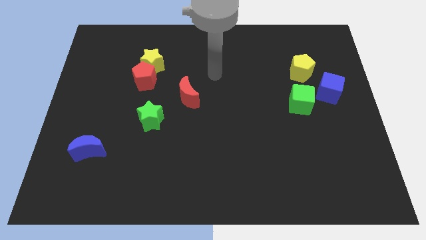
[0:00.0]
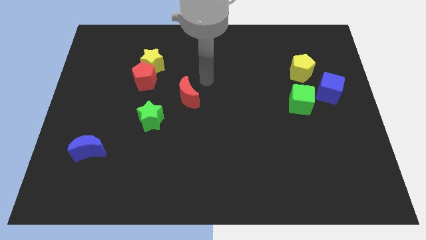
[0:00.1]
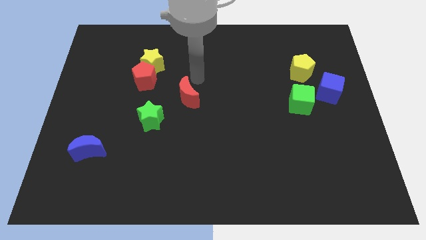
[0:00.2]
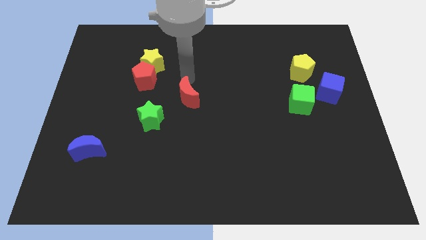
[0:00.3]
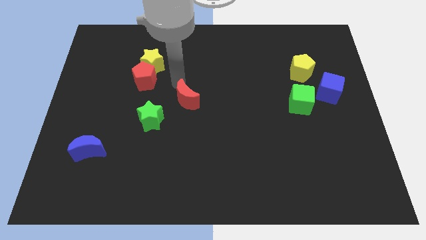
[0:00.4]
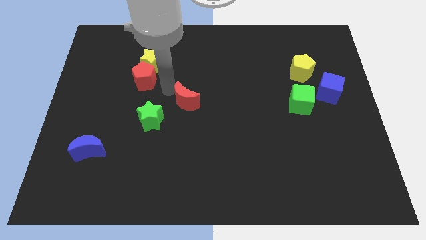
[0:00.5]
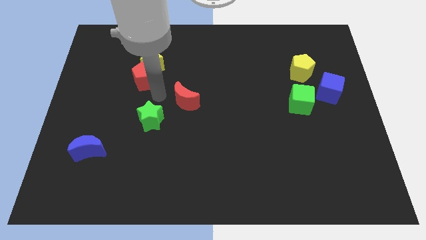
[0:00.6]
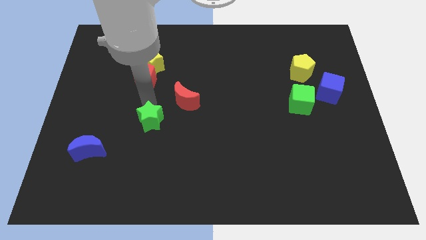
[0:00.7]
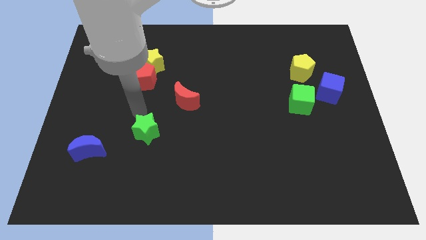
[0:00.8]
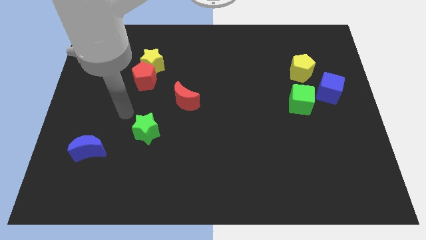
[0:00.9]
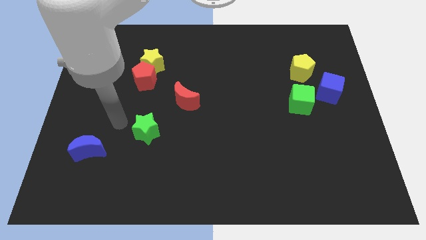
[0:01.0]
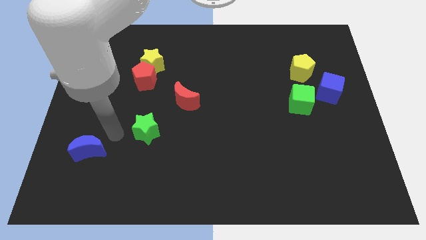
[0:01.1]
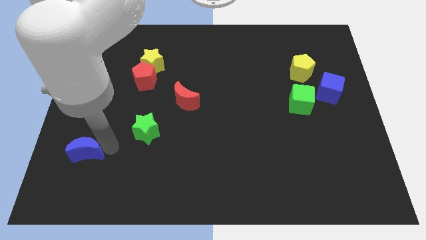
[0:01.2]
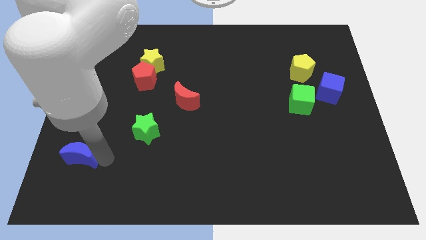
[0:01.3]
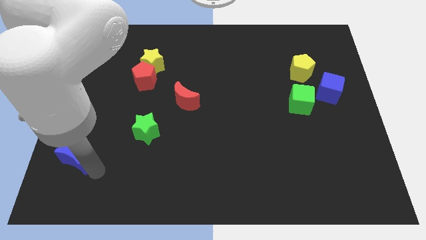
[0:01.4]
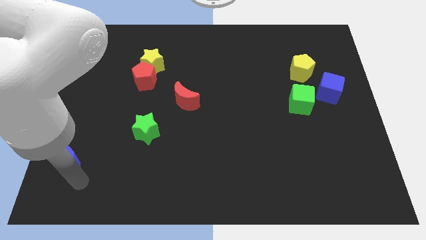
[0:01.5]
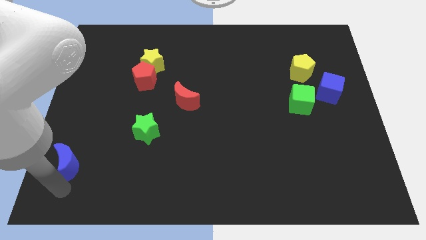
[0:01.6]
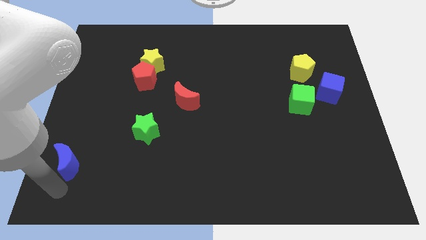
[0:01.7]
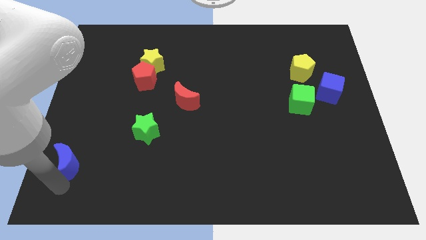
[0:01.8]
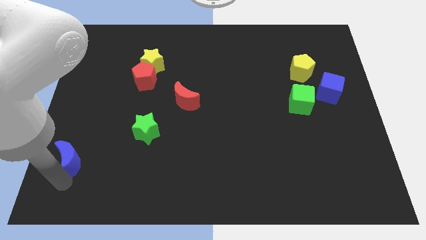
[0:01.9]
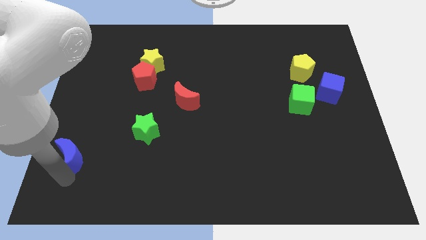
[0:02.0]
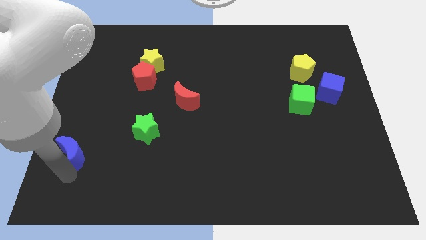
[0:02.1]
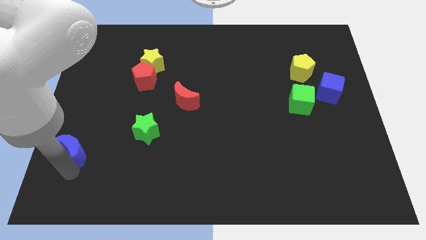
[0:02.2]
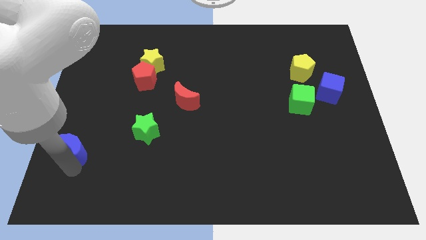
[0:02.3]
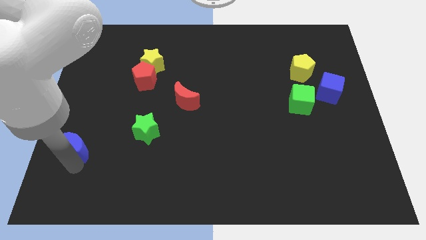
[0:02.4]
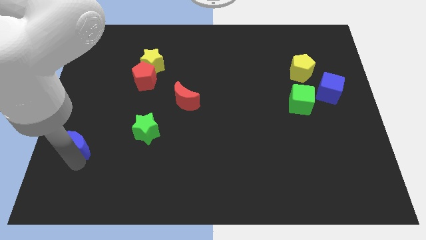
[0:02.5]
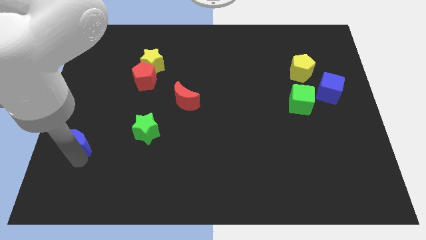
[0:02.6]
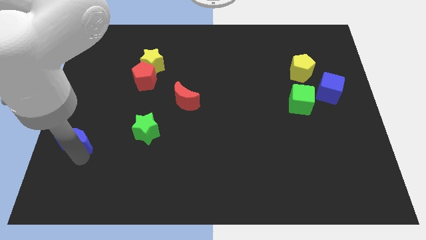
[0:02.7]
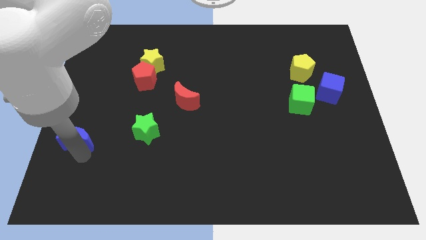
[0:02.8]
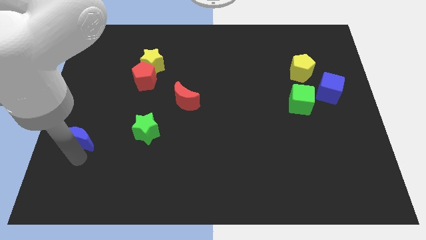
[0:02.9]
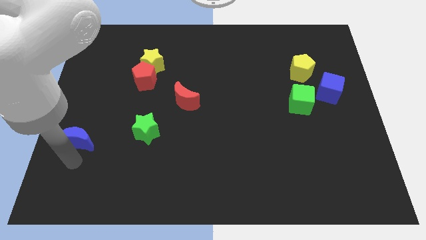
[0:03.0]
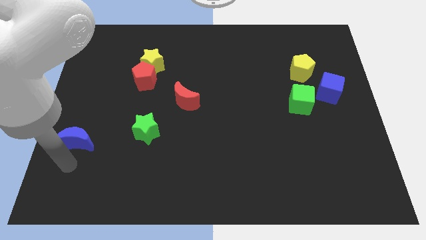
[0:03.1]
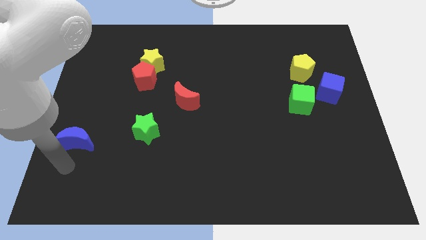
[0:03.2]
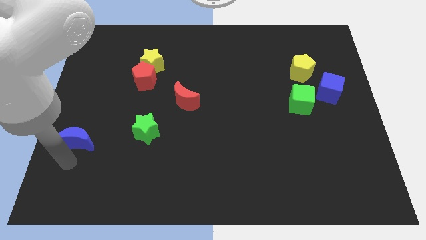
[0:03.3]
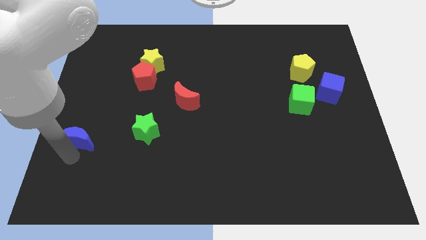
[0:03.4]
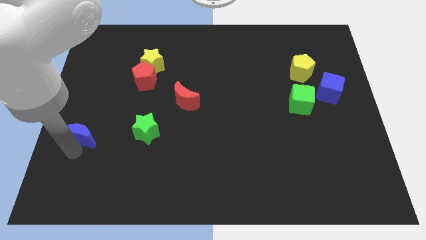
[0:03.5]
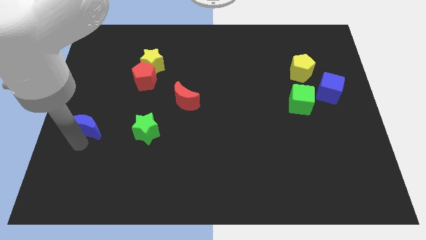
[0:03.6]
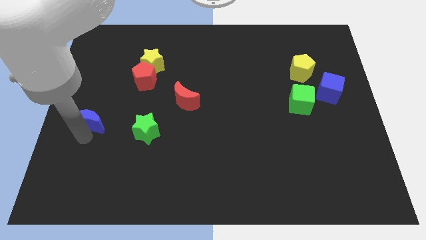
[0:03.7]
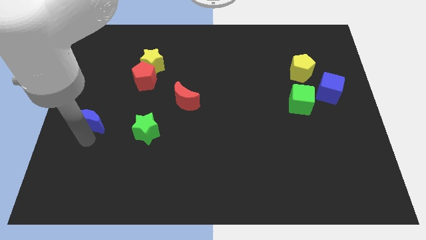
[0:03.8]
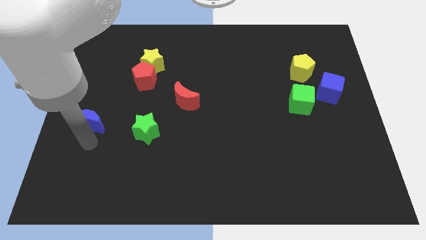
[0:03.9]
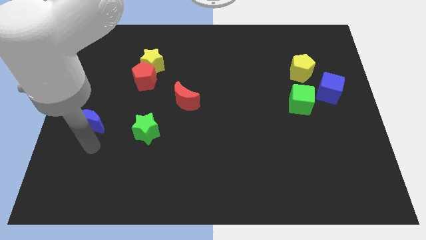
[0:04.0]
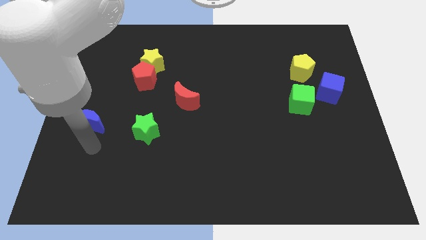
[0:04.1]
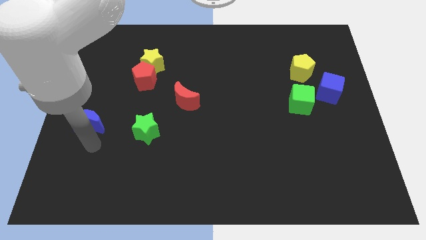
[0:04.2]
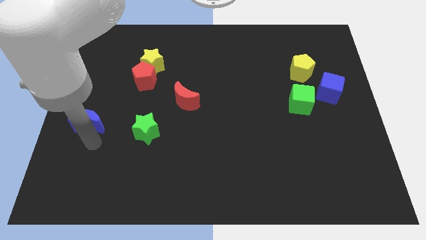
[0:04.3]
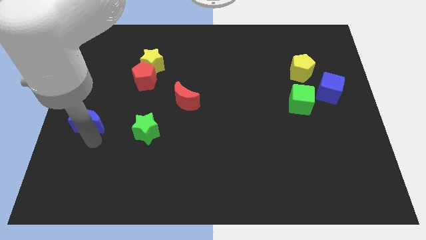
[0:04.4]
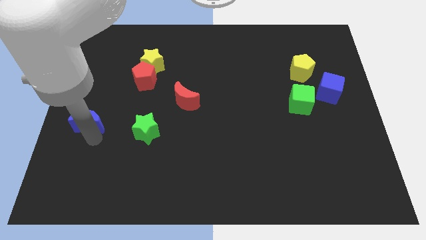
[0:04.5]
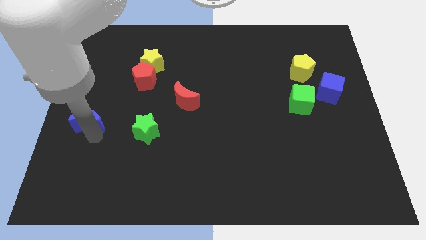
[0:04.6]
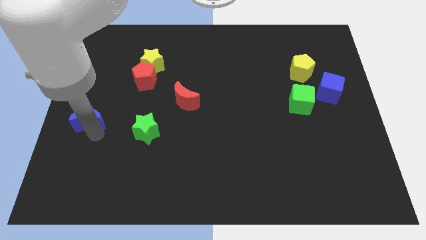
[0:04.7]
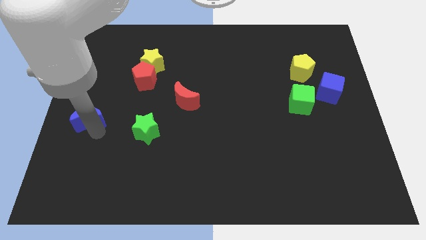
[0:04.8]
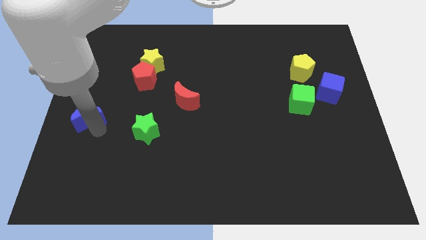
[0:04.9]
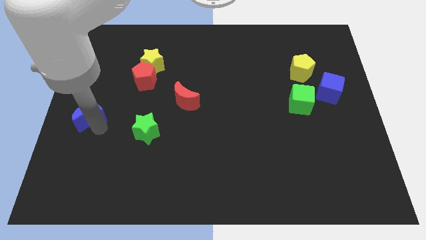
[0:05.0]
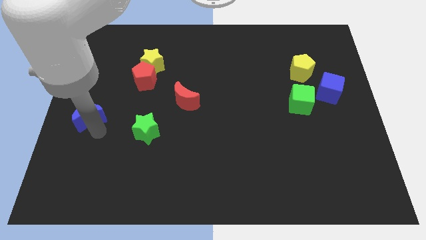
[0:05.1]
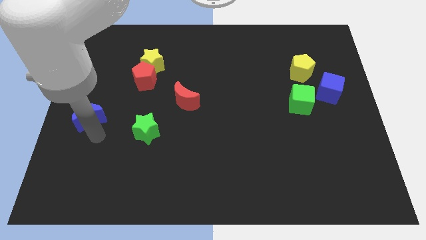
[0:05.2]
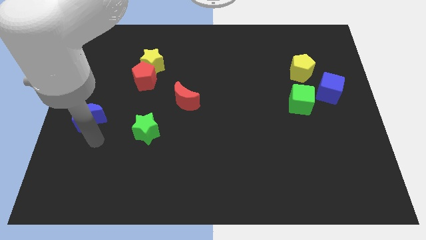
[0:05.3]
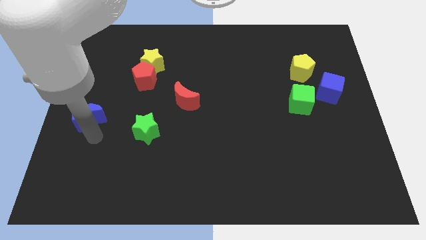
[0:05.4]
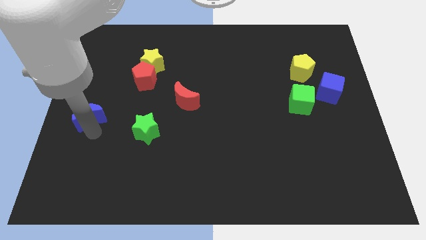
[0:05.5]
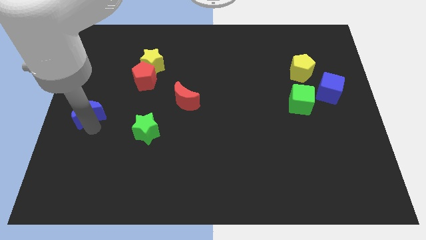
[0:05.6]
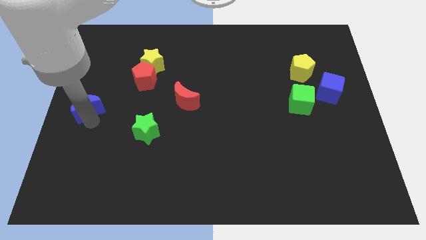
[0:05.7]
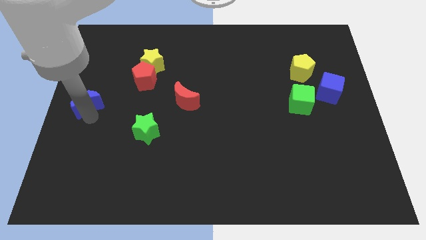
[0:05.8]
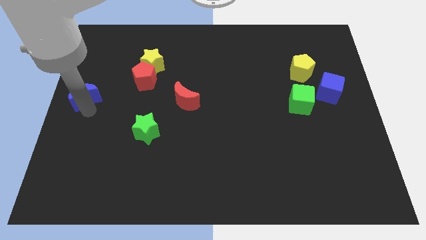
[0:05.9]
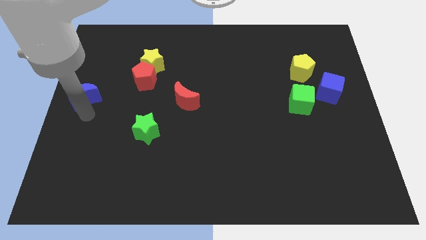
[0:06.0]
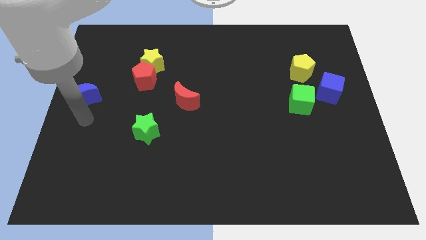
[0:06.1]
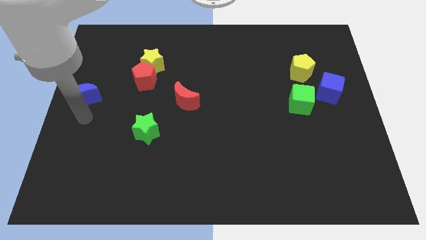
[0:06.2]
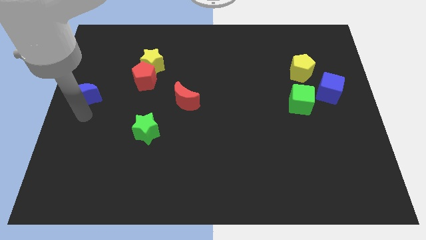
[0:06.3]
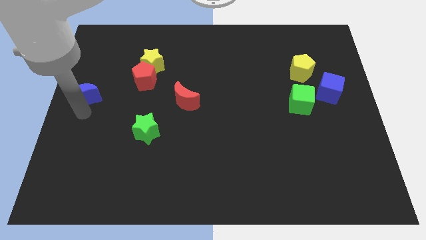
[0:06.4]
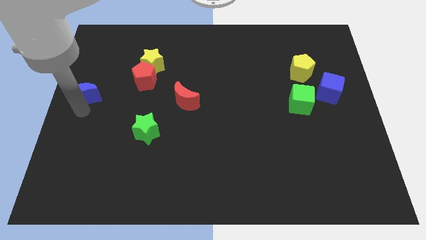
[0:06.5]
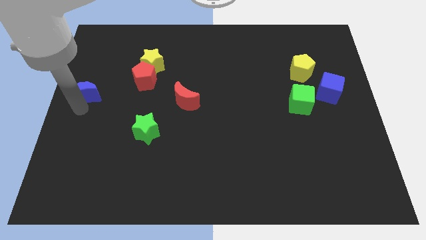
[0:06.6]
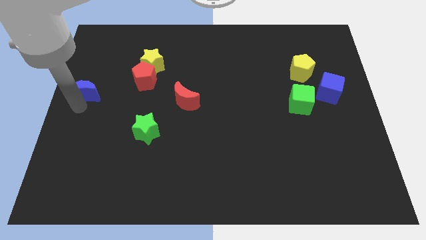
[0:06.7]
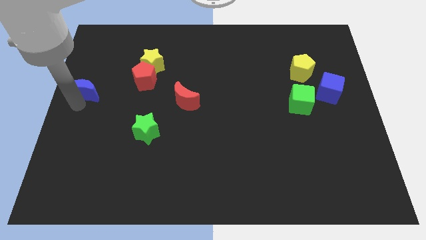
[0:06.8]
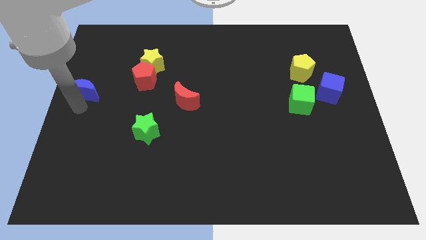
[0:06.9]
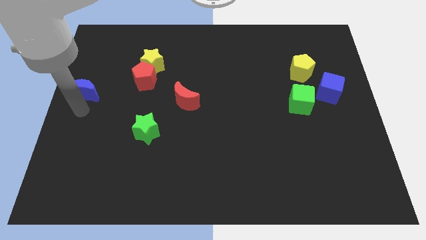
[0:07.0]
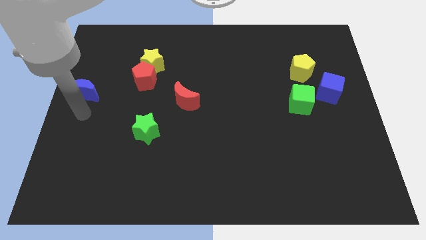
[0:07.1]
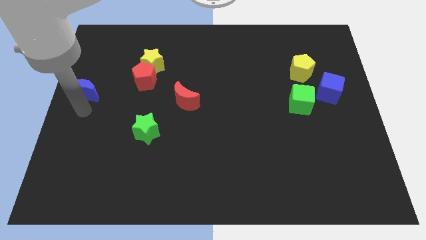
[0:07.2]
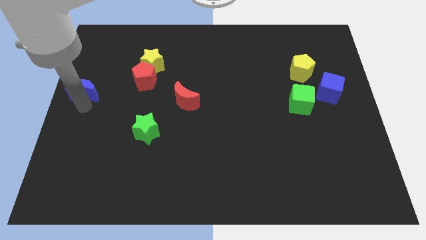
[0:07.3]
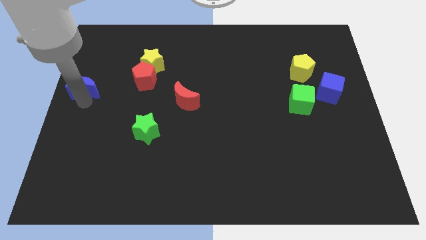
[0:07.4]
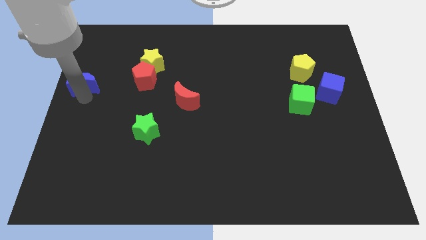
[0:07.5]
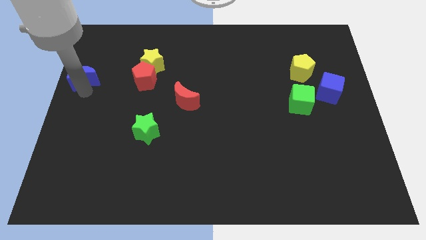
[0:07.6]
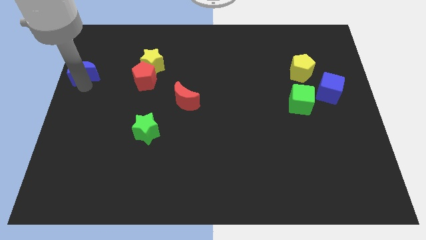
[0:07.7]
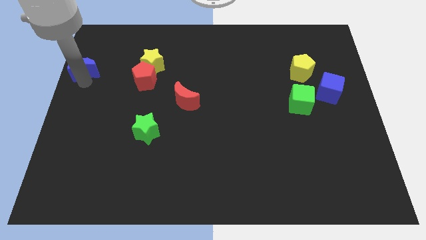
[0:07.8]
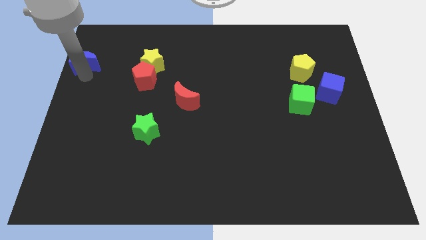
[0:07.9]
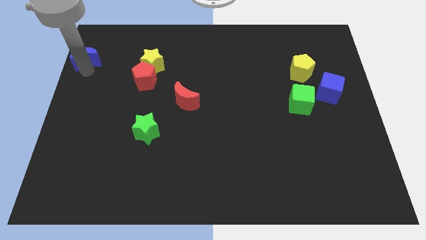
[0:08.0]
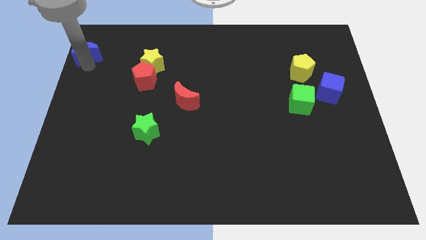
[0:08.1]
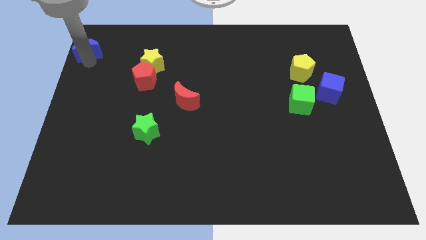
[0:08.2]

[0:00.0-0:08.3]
move the blue moon to the upper left corner
